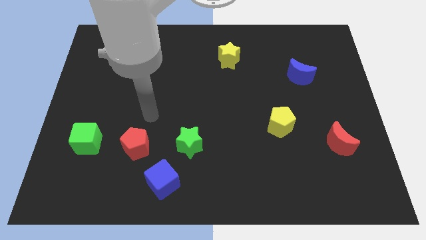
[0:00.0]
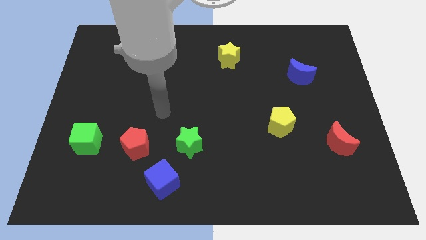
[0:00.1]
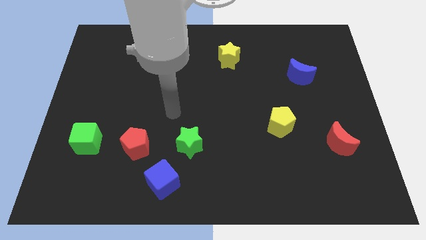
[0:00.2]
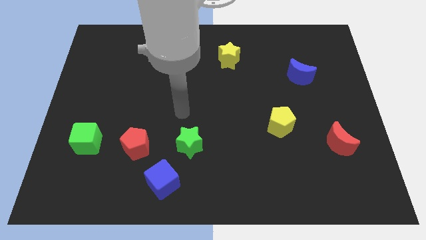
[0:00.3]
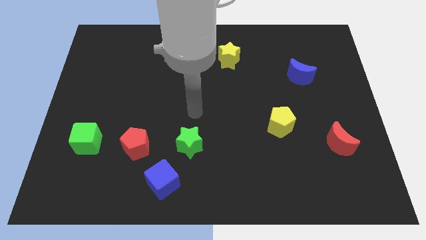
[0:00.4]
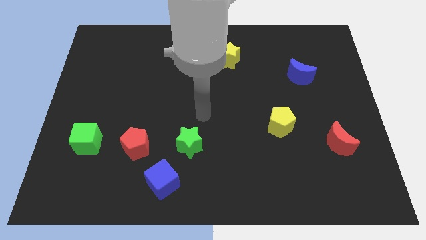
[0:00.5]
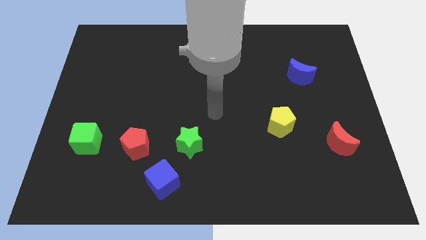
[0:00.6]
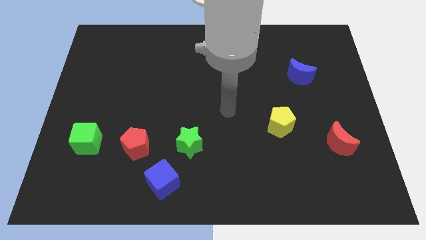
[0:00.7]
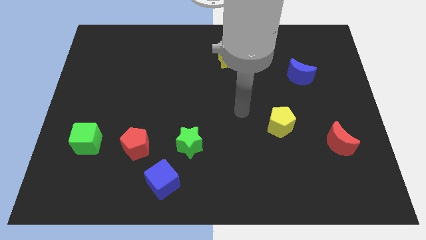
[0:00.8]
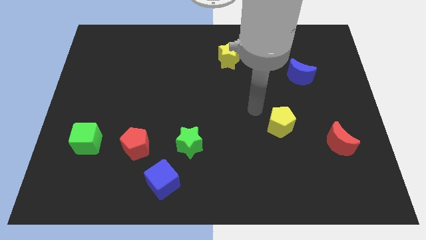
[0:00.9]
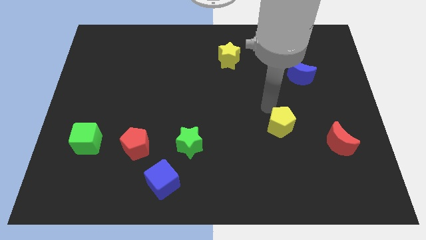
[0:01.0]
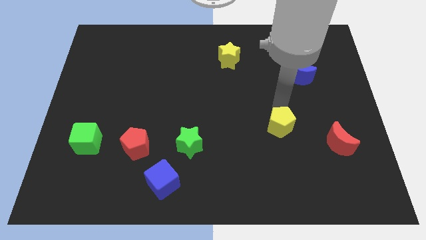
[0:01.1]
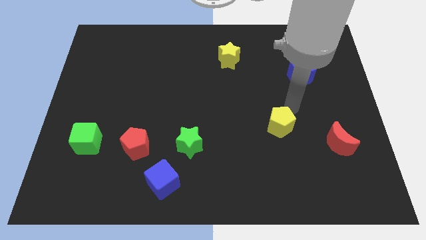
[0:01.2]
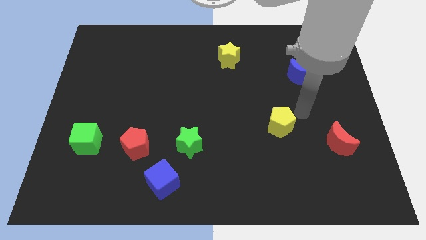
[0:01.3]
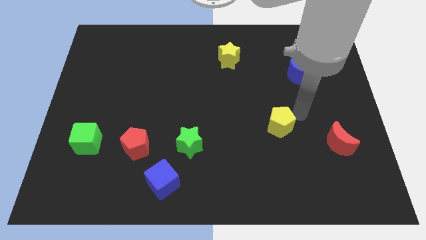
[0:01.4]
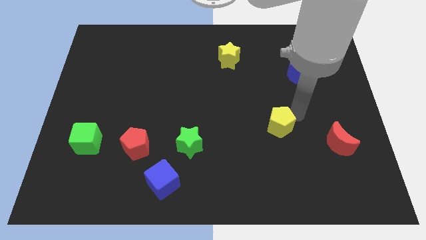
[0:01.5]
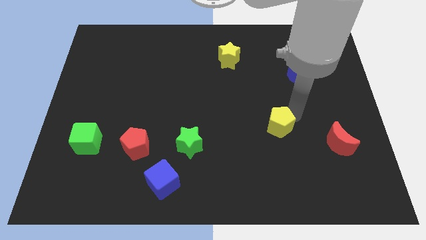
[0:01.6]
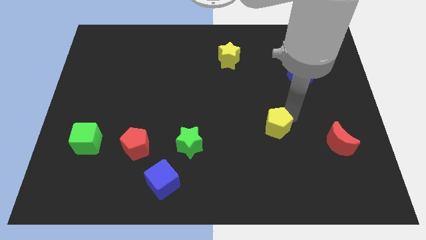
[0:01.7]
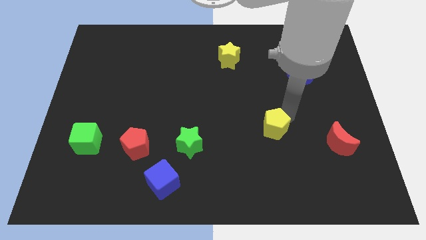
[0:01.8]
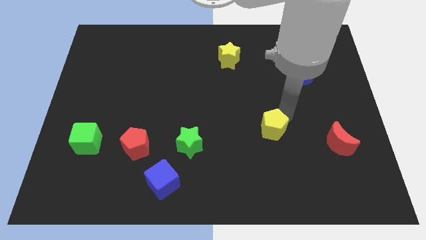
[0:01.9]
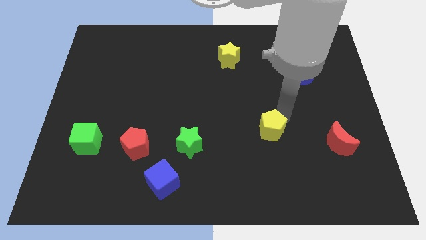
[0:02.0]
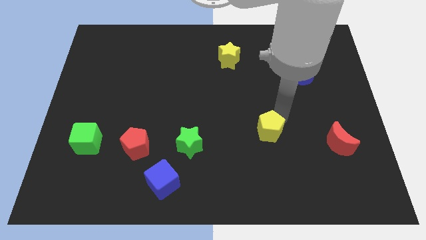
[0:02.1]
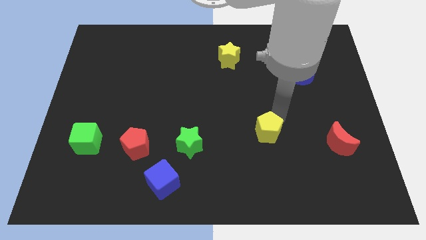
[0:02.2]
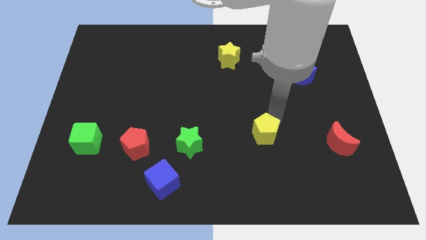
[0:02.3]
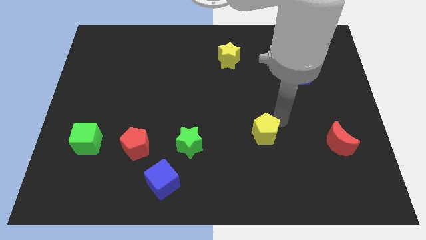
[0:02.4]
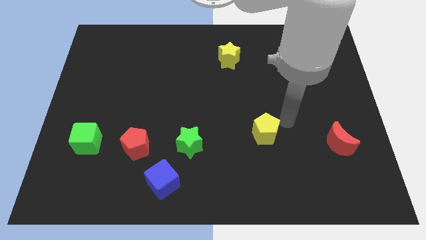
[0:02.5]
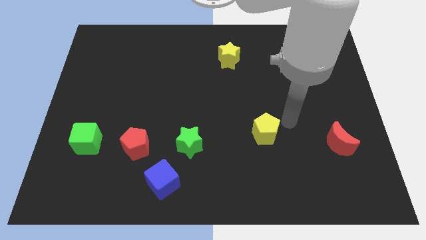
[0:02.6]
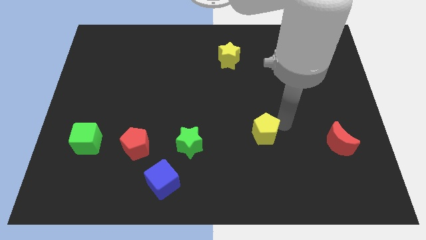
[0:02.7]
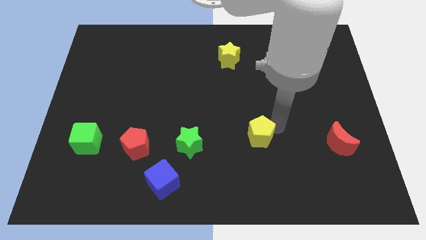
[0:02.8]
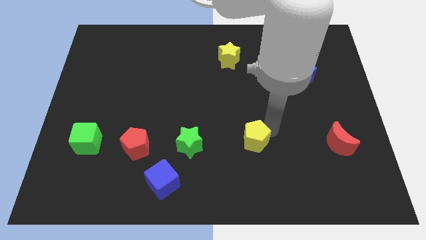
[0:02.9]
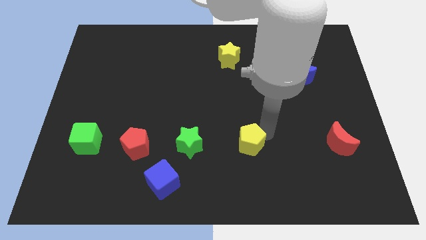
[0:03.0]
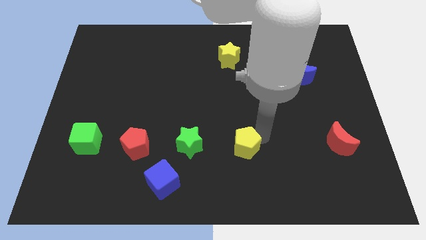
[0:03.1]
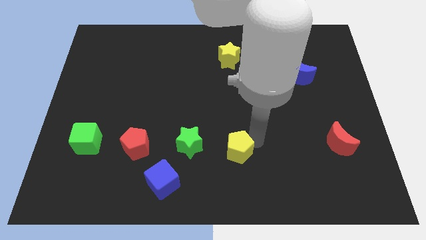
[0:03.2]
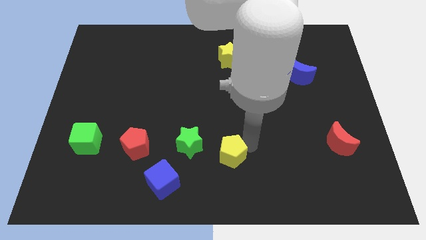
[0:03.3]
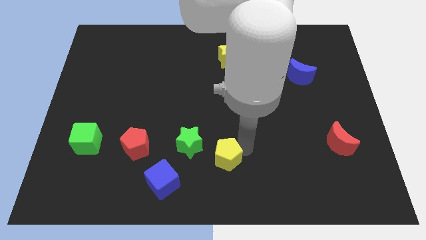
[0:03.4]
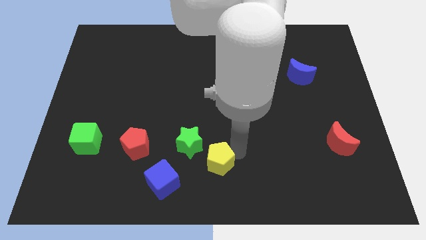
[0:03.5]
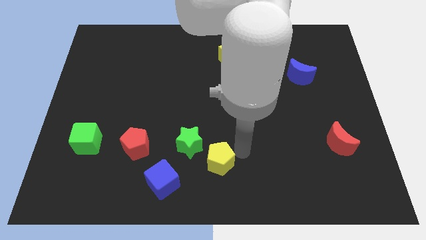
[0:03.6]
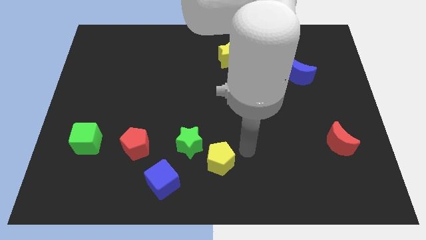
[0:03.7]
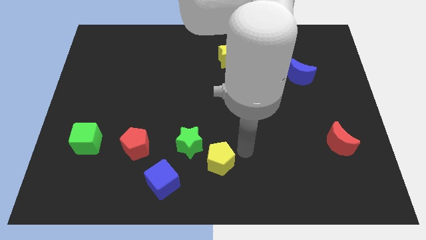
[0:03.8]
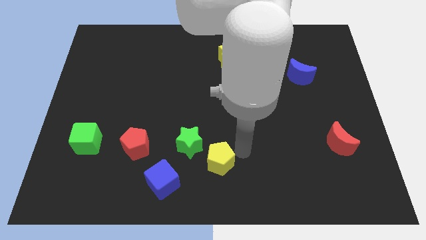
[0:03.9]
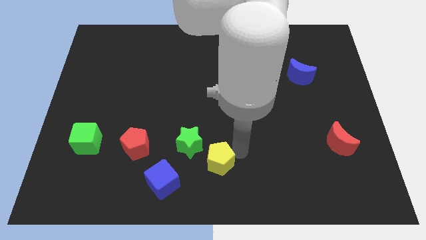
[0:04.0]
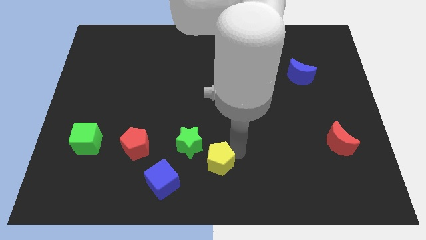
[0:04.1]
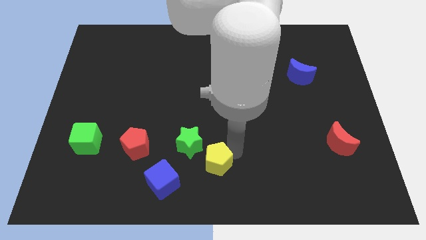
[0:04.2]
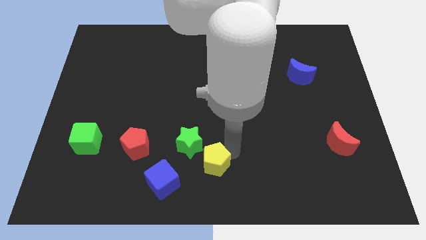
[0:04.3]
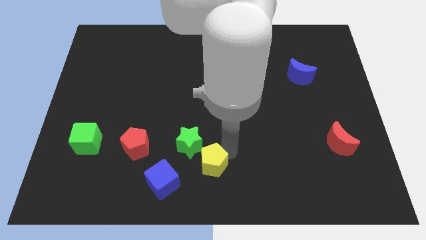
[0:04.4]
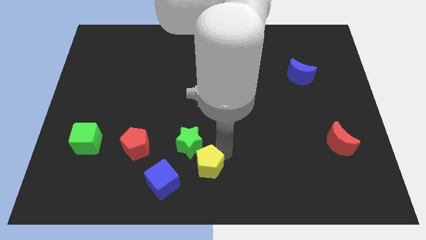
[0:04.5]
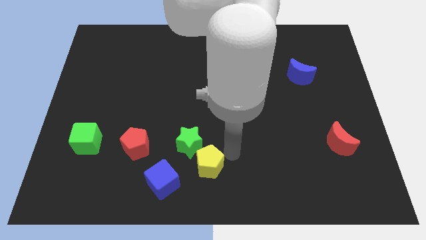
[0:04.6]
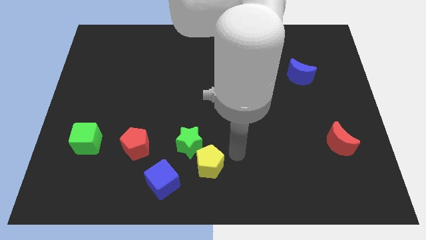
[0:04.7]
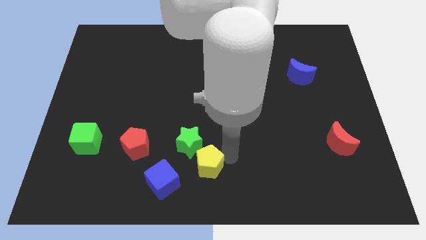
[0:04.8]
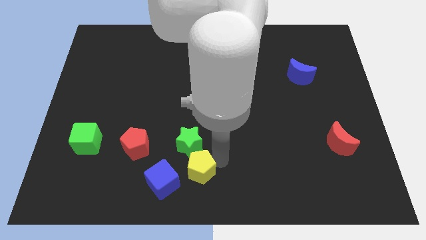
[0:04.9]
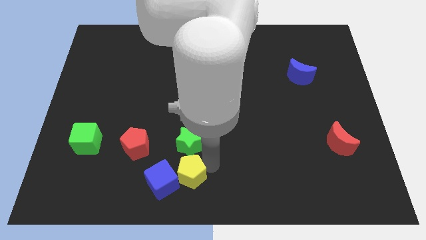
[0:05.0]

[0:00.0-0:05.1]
push the yellow pentagon next to the blue cube

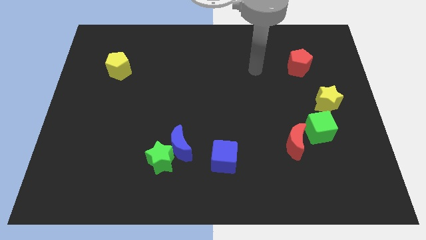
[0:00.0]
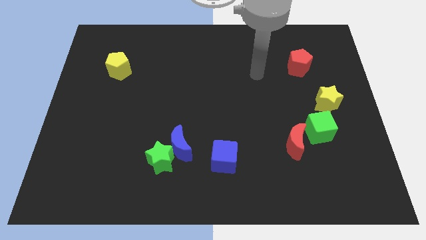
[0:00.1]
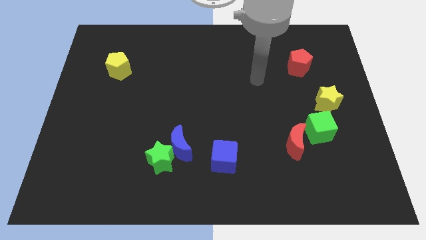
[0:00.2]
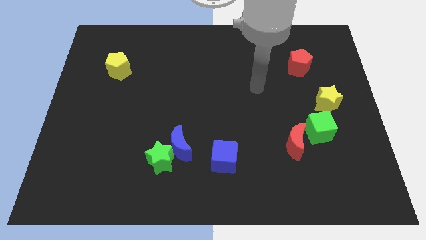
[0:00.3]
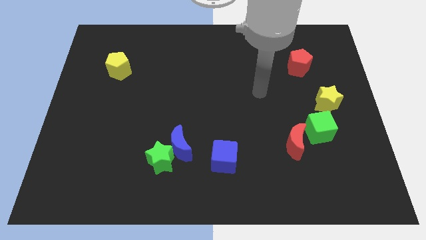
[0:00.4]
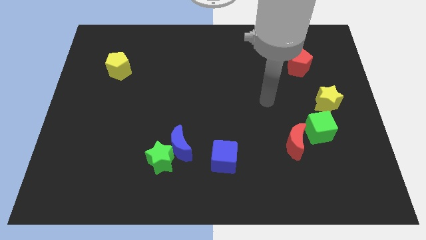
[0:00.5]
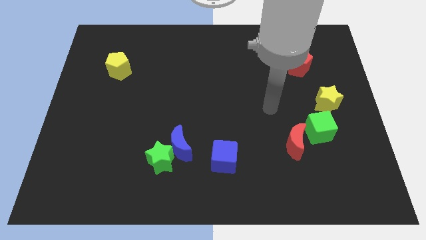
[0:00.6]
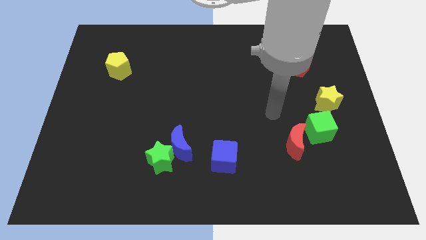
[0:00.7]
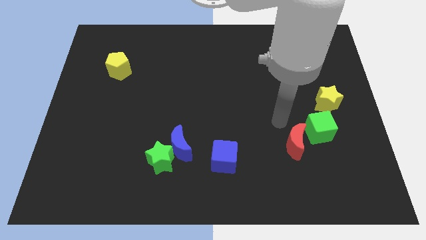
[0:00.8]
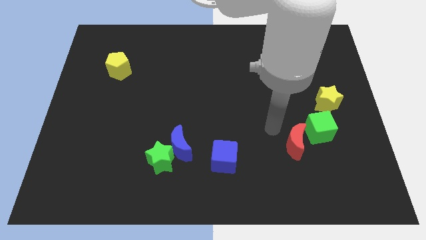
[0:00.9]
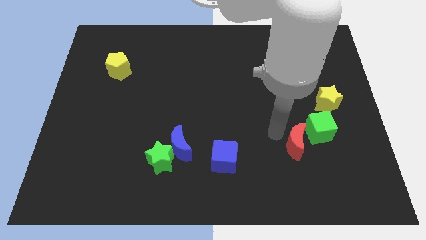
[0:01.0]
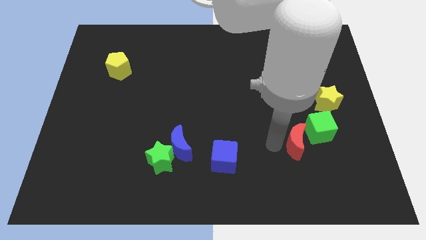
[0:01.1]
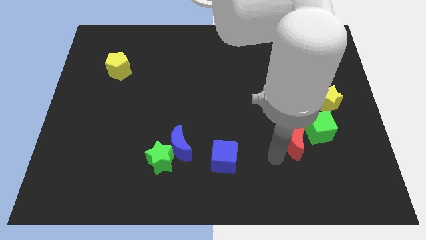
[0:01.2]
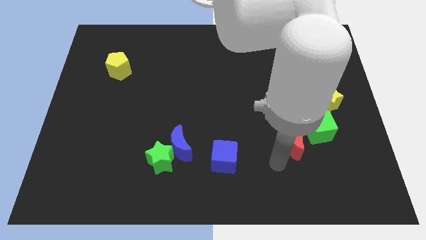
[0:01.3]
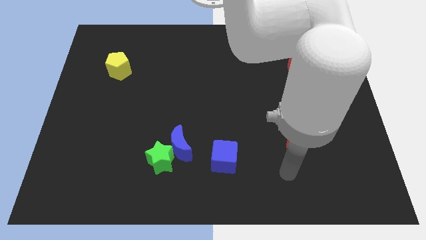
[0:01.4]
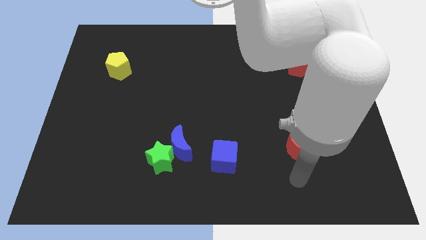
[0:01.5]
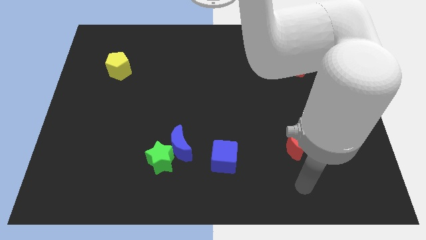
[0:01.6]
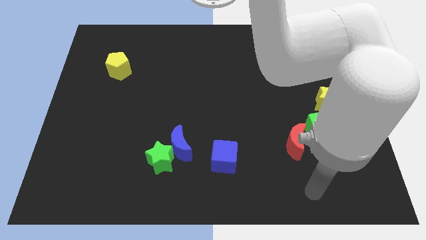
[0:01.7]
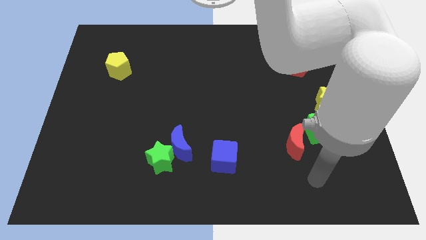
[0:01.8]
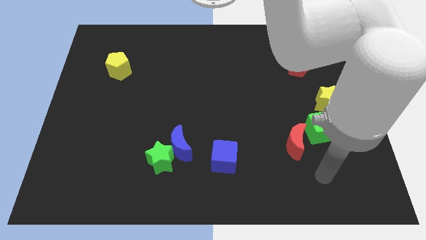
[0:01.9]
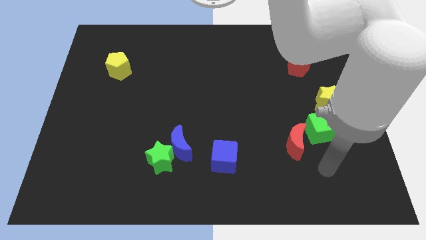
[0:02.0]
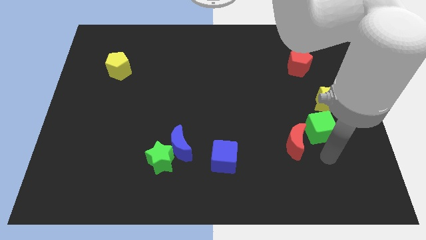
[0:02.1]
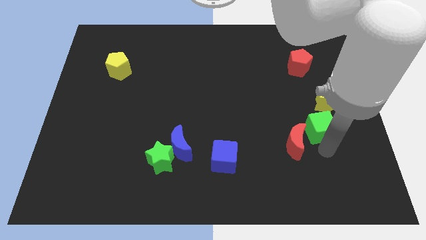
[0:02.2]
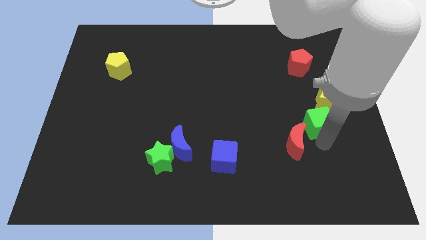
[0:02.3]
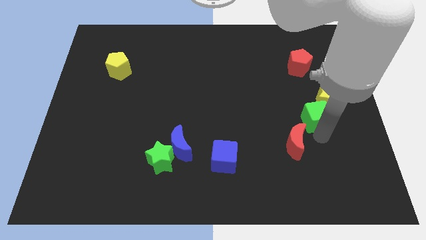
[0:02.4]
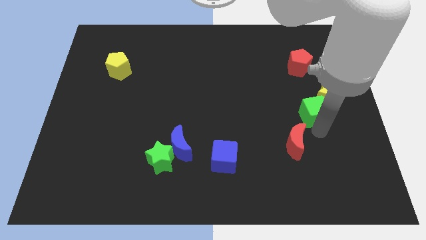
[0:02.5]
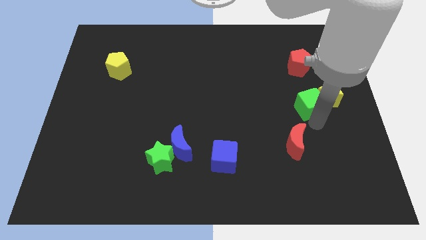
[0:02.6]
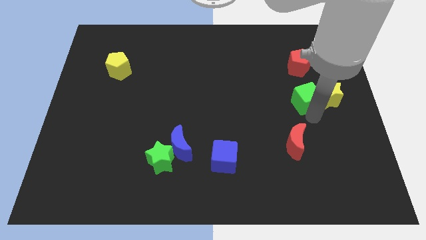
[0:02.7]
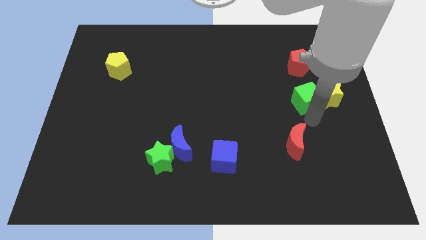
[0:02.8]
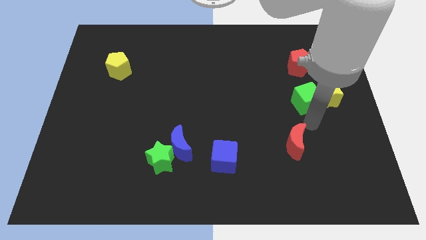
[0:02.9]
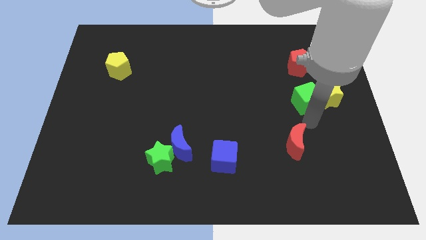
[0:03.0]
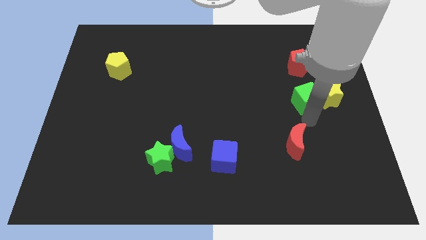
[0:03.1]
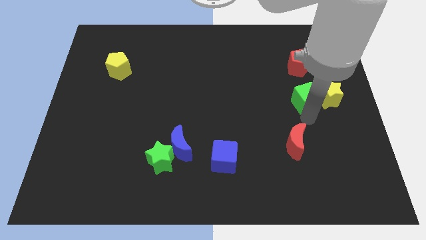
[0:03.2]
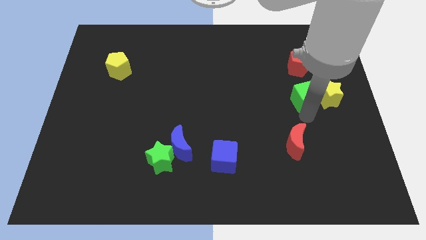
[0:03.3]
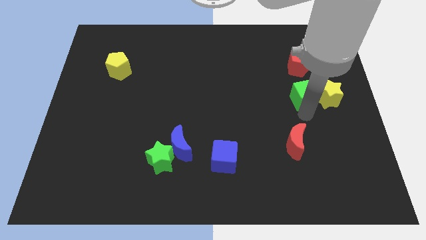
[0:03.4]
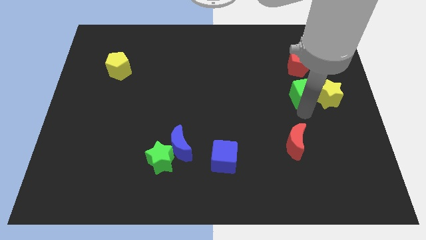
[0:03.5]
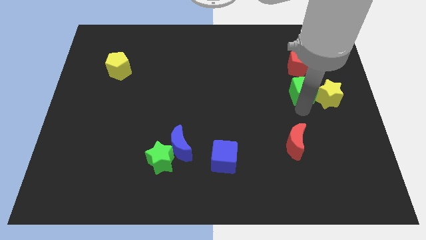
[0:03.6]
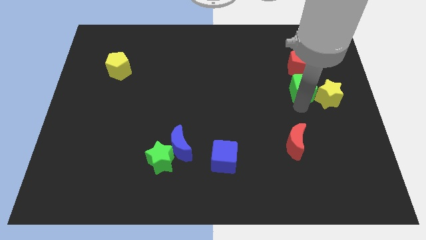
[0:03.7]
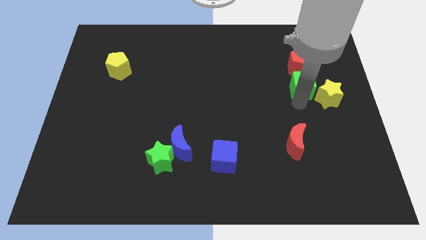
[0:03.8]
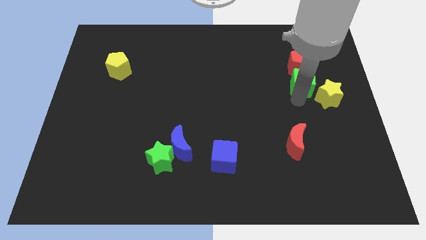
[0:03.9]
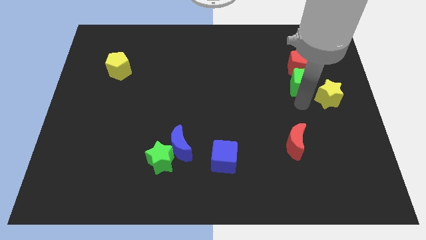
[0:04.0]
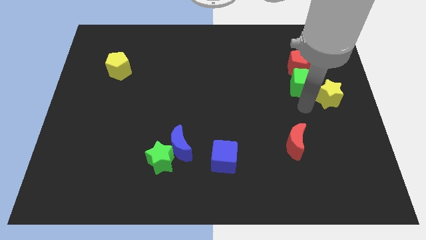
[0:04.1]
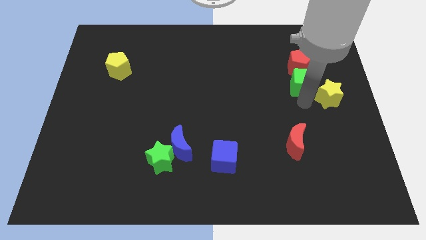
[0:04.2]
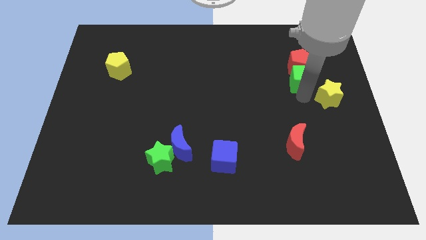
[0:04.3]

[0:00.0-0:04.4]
push the green cube to the red pentagon
